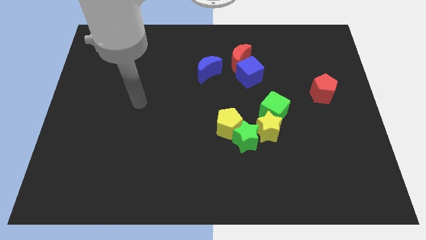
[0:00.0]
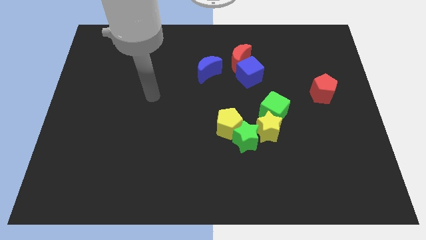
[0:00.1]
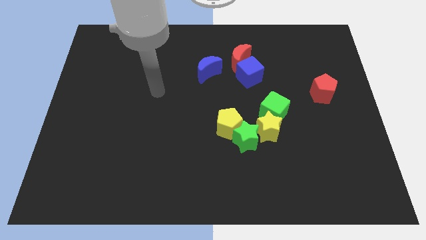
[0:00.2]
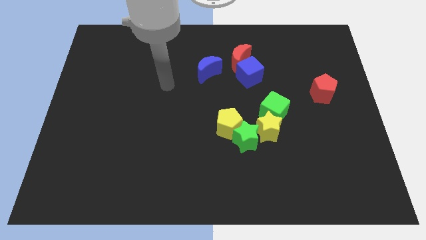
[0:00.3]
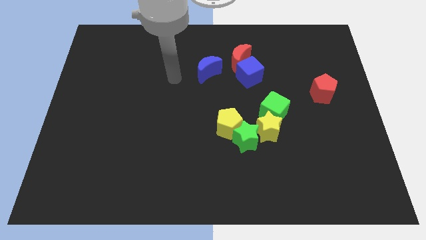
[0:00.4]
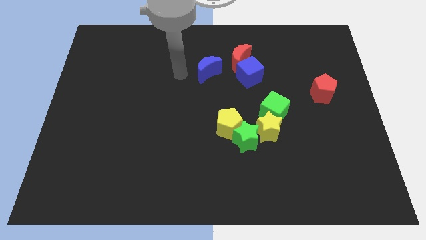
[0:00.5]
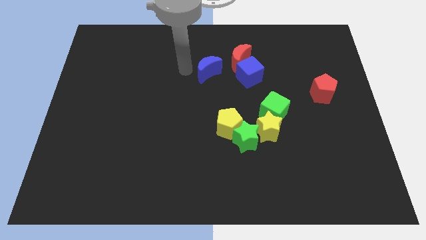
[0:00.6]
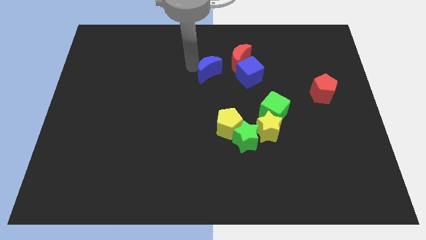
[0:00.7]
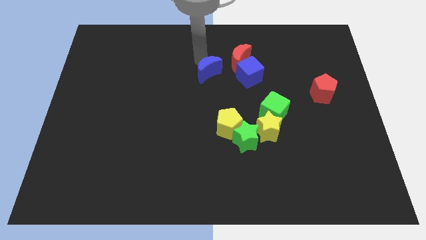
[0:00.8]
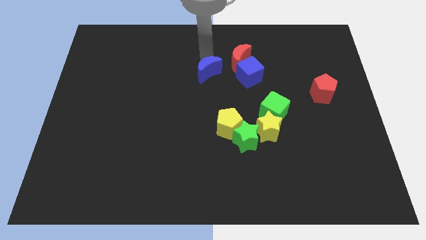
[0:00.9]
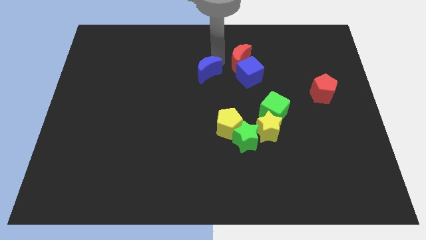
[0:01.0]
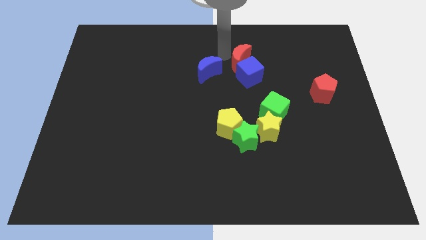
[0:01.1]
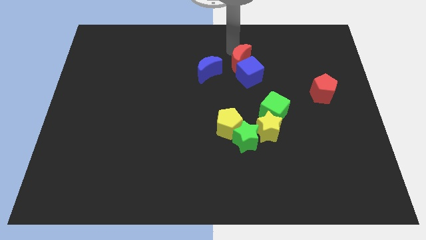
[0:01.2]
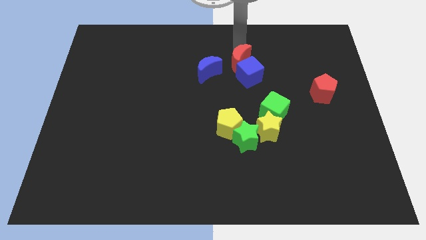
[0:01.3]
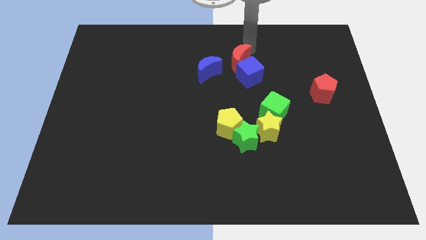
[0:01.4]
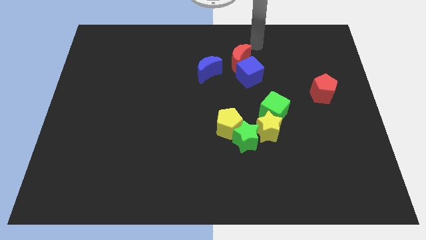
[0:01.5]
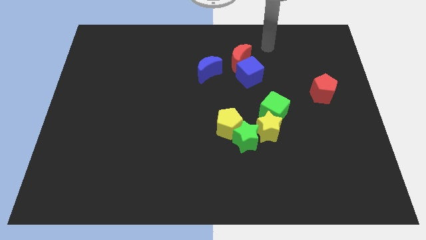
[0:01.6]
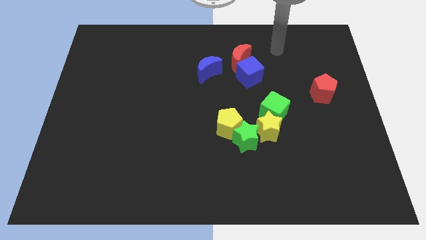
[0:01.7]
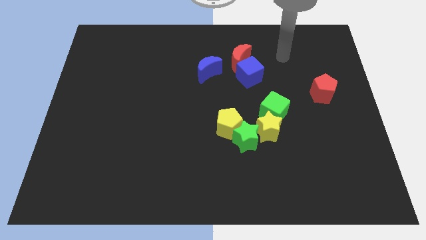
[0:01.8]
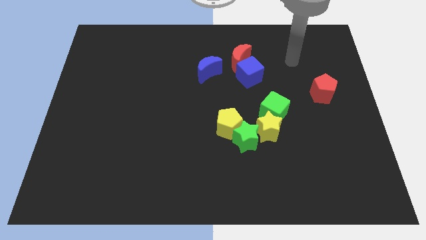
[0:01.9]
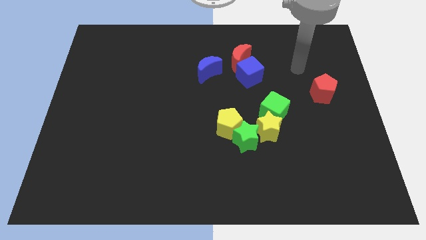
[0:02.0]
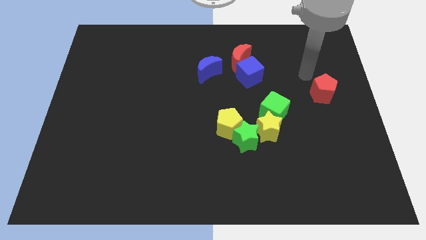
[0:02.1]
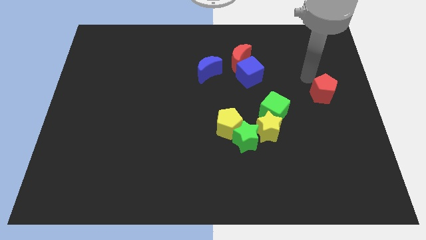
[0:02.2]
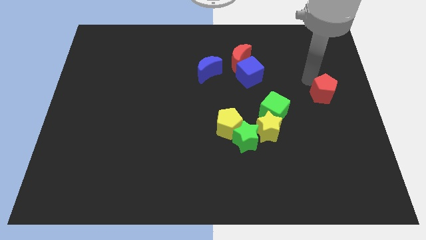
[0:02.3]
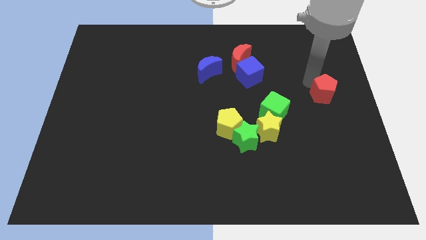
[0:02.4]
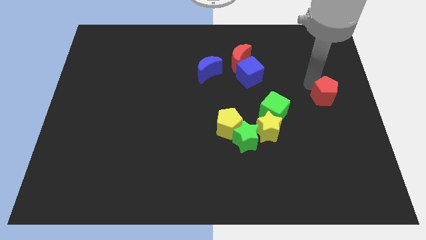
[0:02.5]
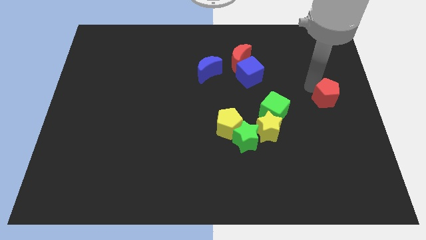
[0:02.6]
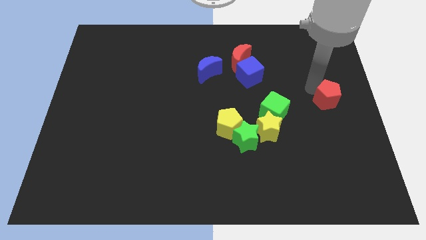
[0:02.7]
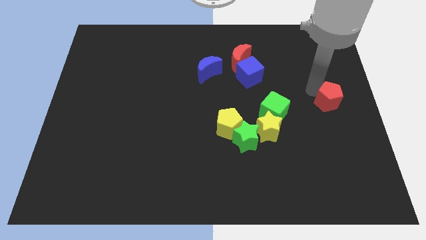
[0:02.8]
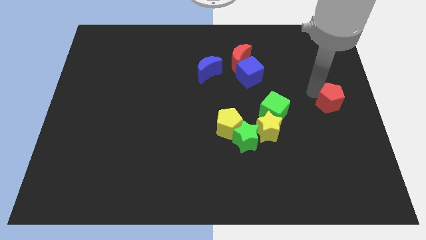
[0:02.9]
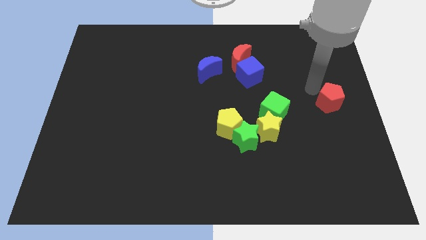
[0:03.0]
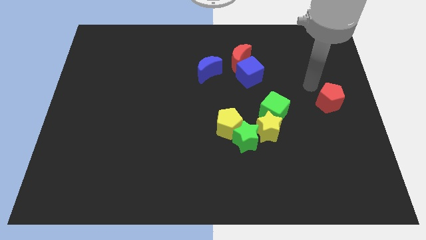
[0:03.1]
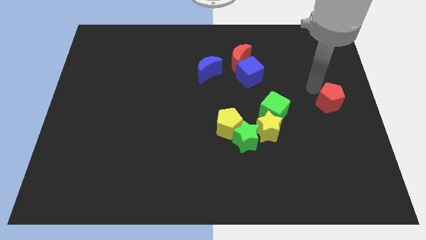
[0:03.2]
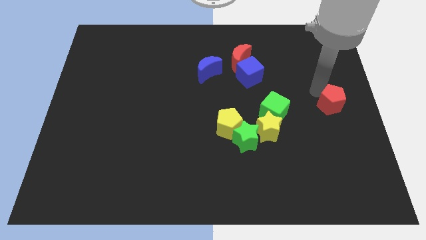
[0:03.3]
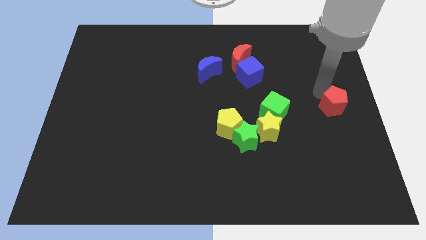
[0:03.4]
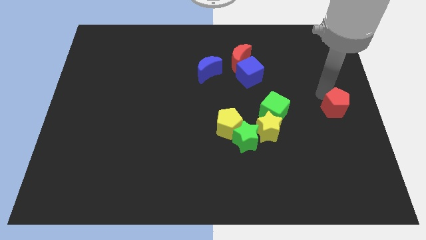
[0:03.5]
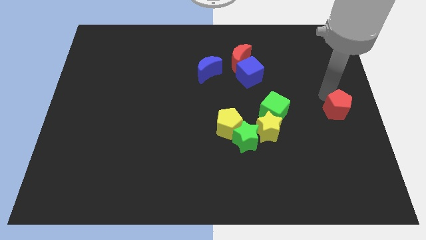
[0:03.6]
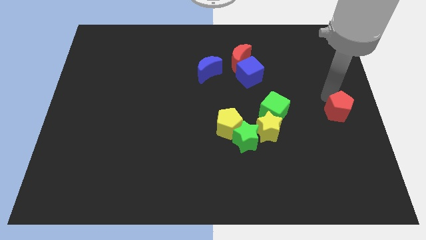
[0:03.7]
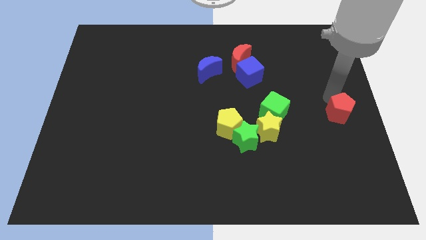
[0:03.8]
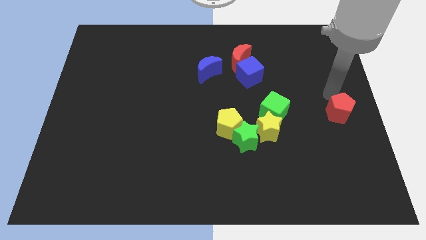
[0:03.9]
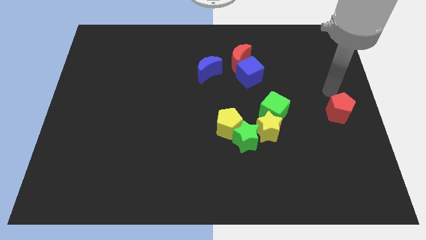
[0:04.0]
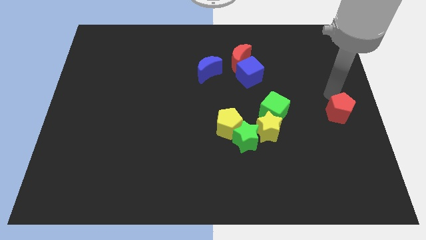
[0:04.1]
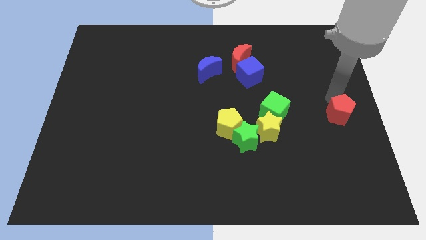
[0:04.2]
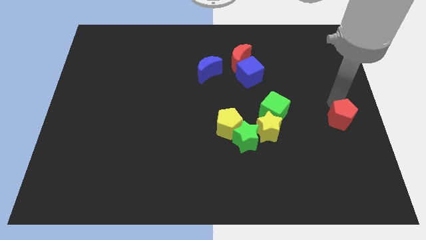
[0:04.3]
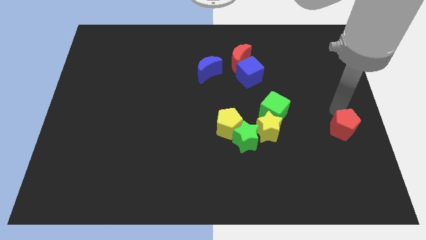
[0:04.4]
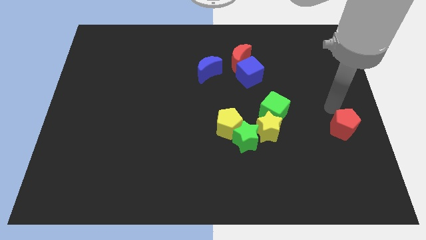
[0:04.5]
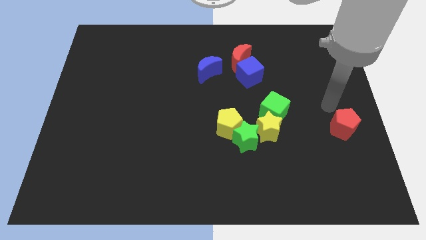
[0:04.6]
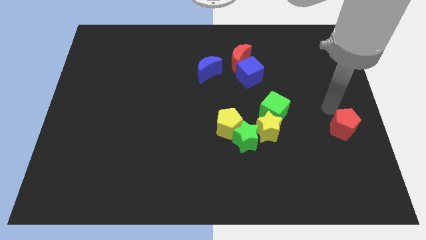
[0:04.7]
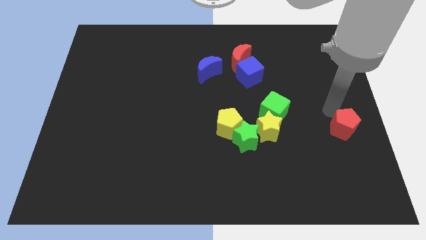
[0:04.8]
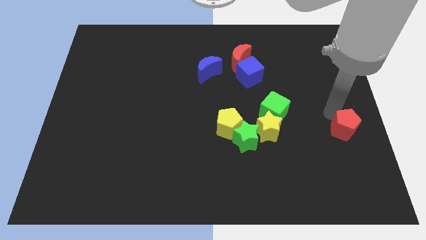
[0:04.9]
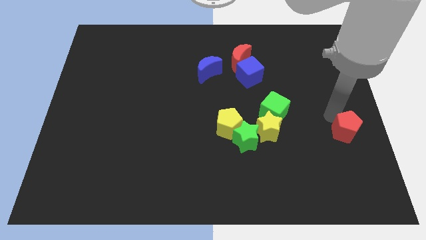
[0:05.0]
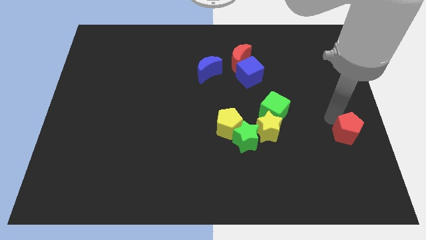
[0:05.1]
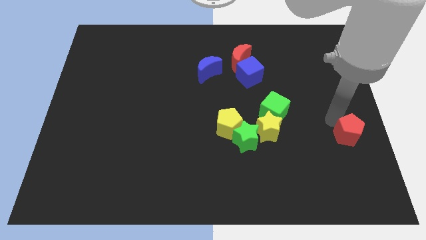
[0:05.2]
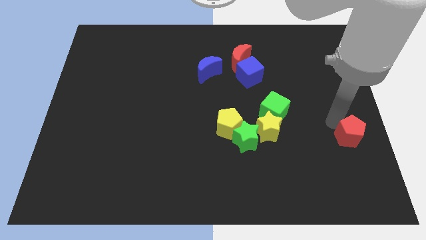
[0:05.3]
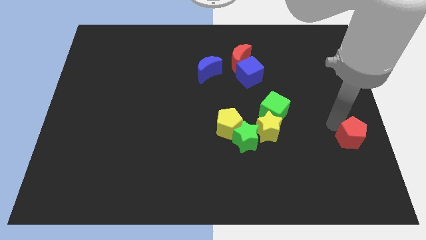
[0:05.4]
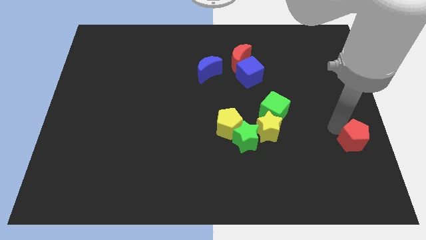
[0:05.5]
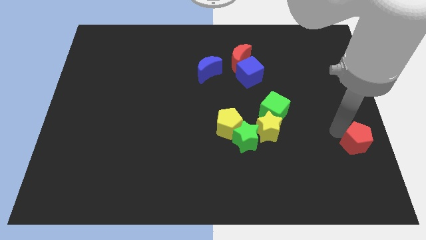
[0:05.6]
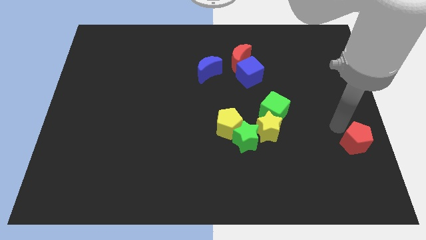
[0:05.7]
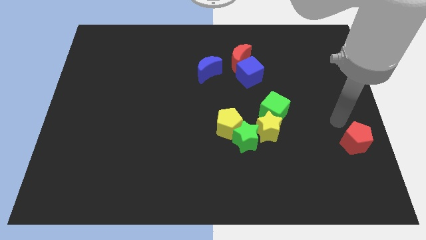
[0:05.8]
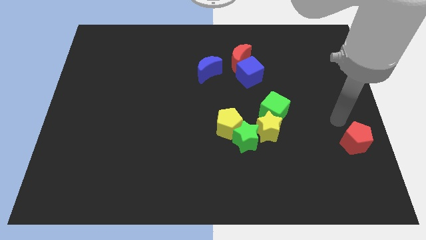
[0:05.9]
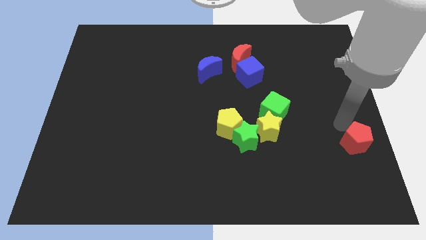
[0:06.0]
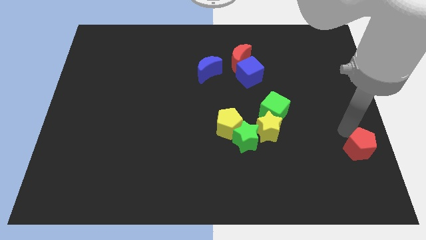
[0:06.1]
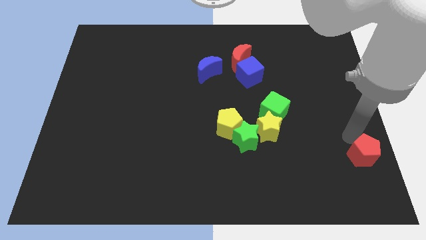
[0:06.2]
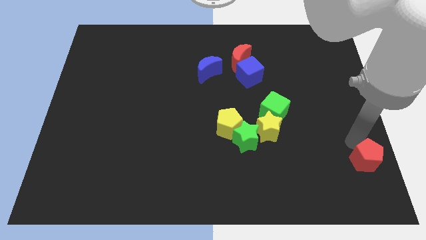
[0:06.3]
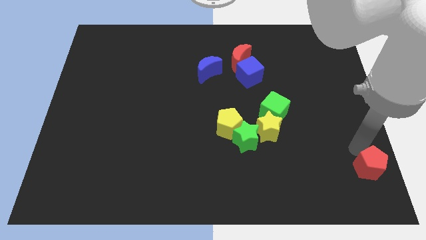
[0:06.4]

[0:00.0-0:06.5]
push the red pentagon to the bottom right of the board
